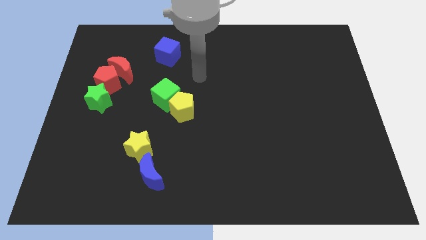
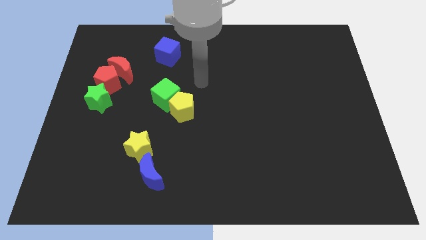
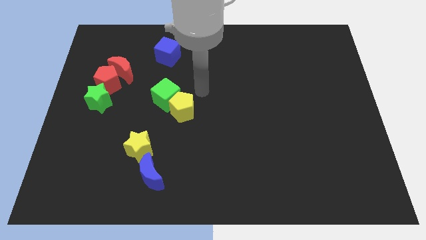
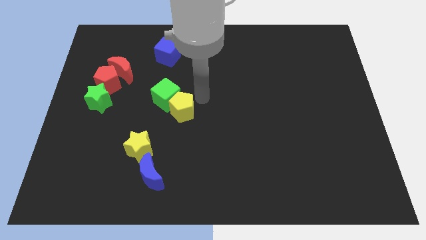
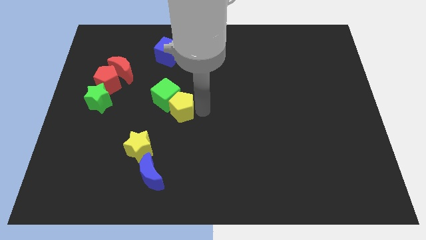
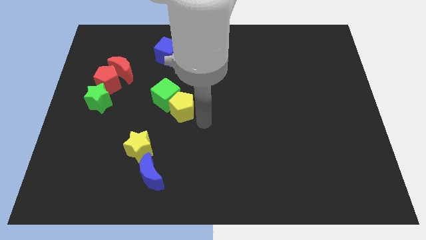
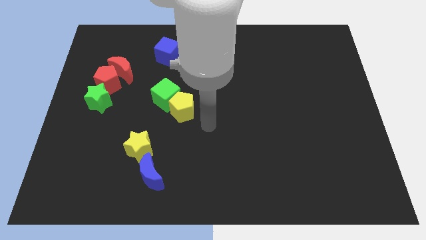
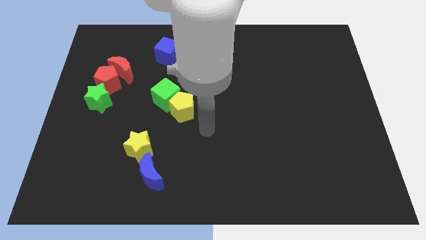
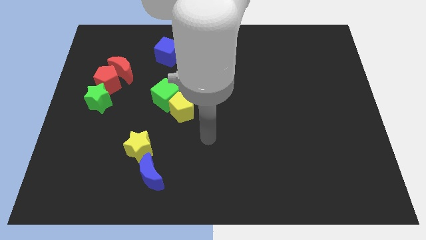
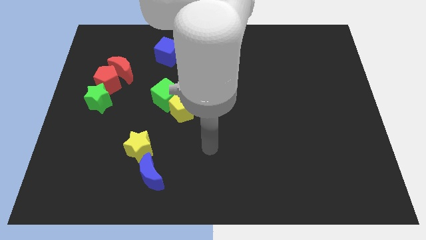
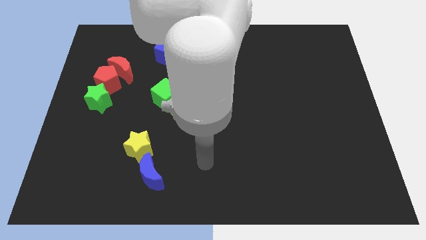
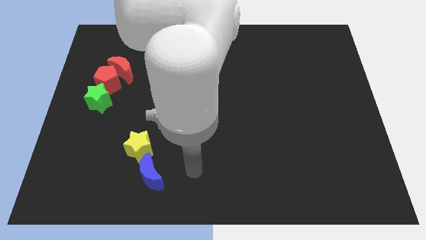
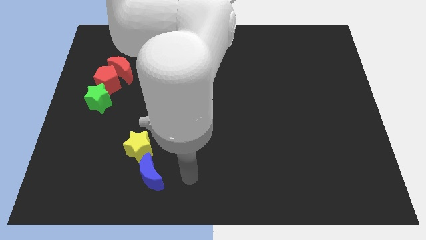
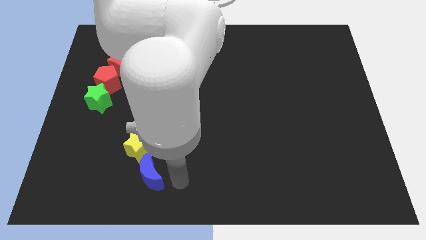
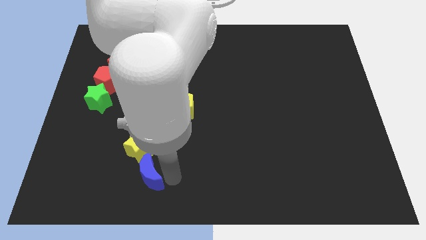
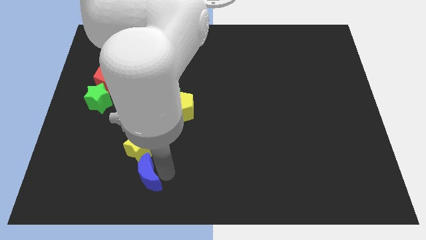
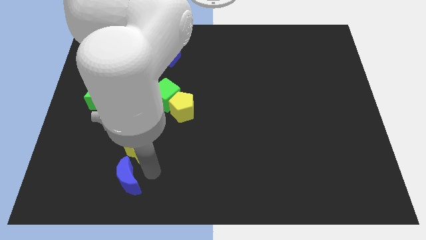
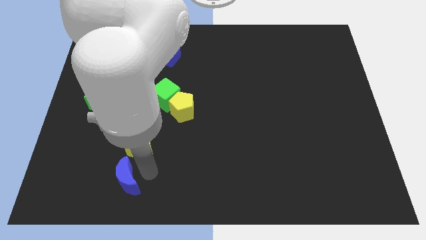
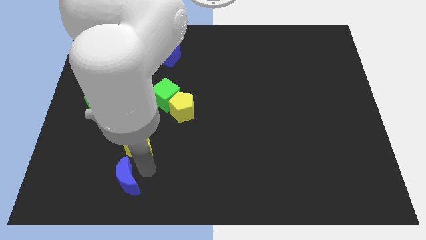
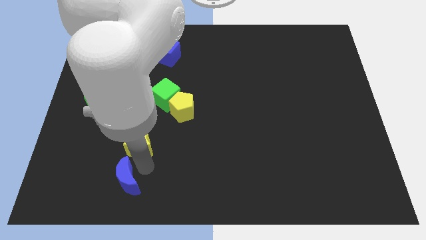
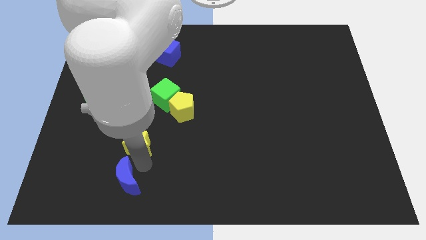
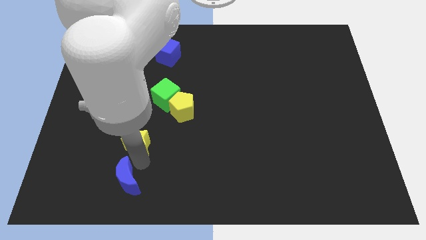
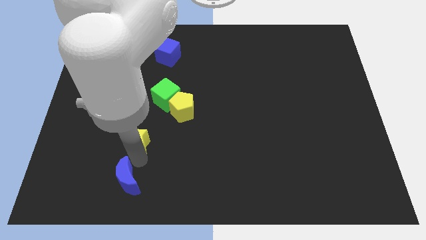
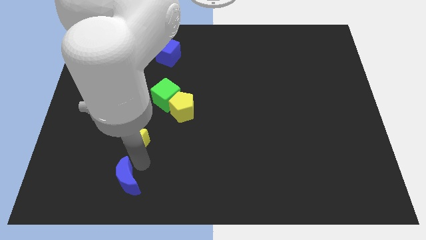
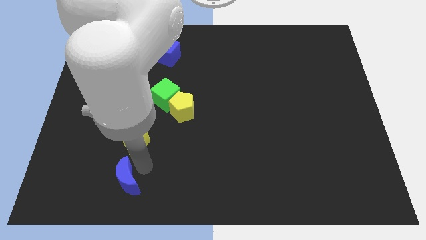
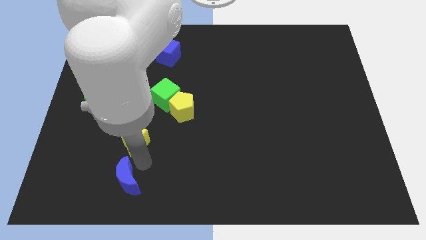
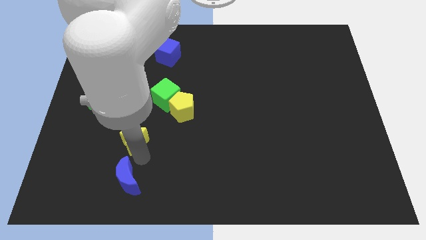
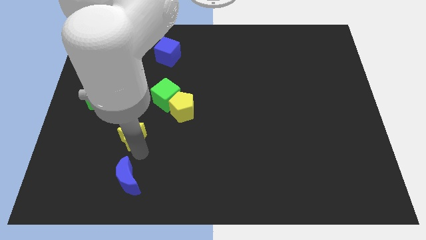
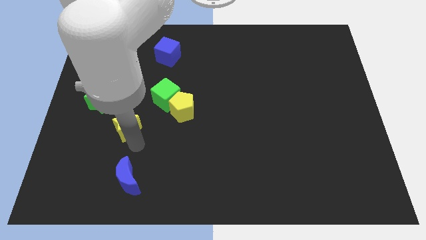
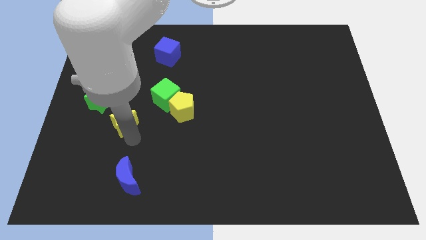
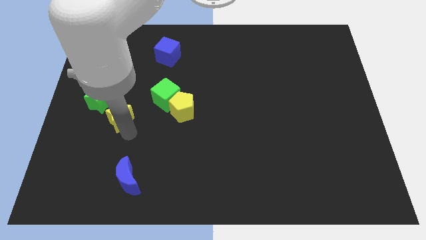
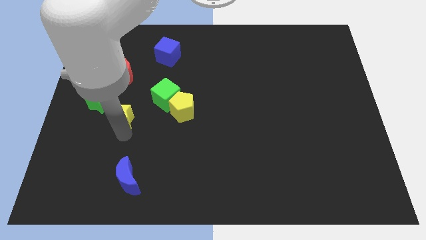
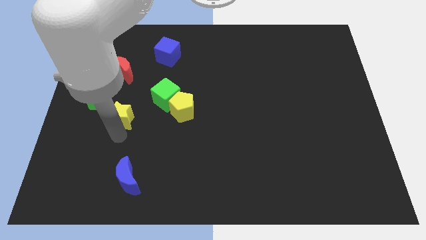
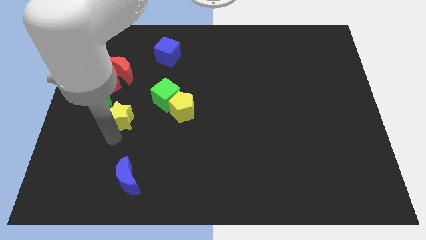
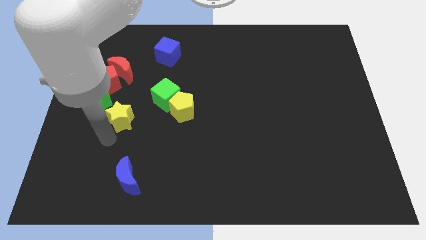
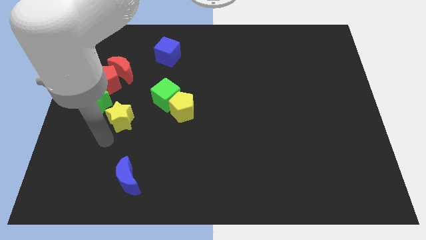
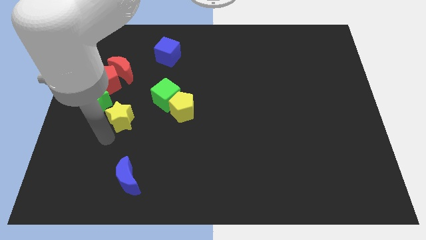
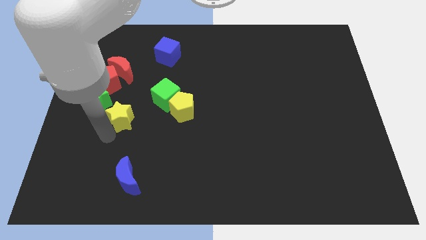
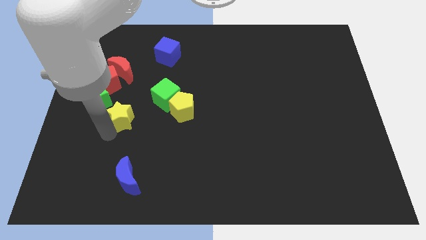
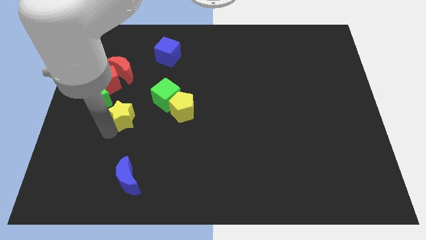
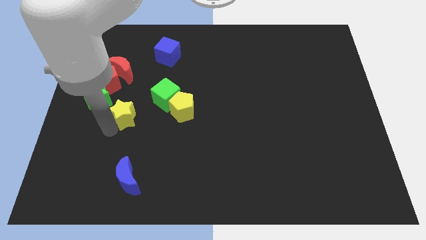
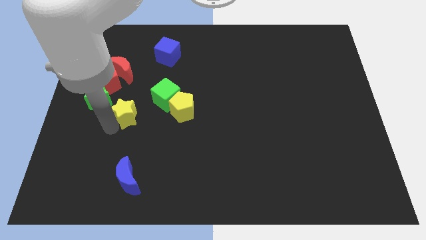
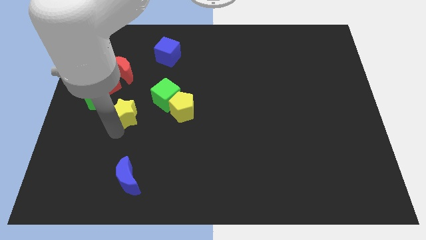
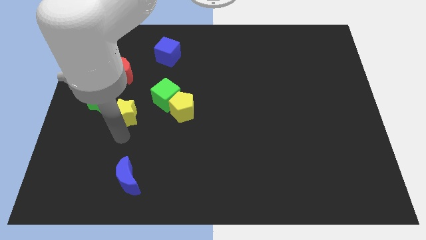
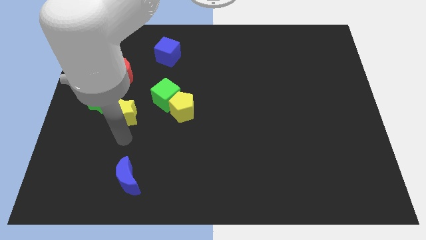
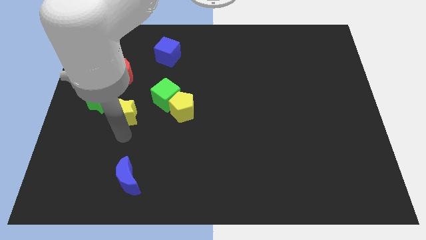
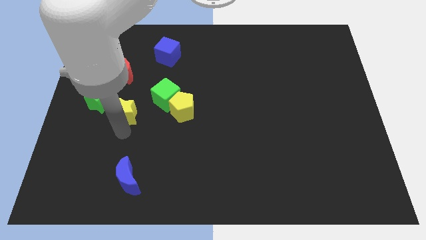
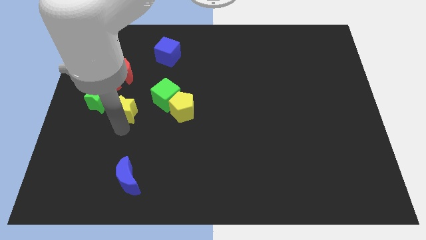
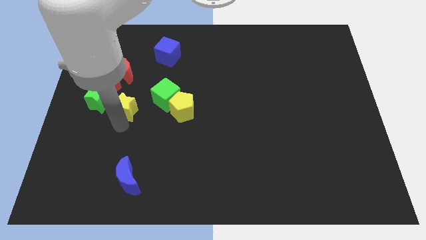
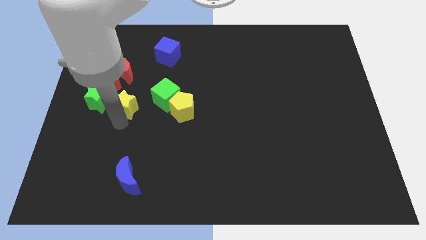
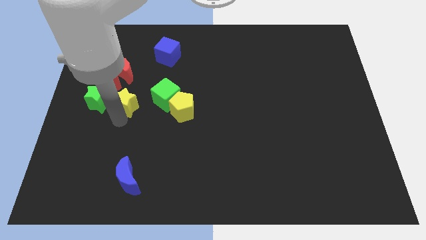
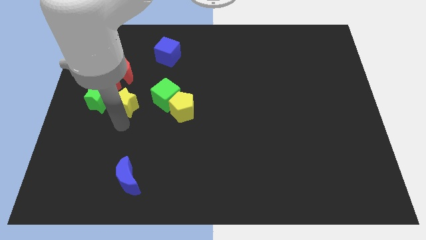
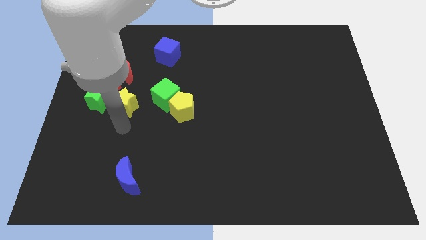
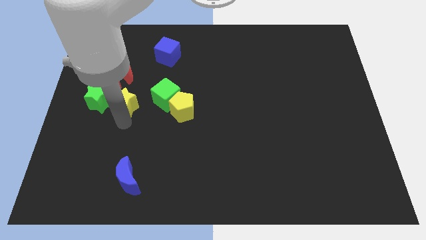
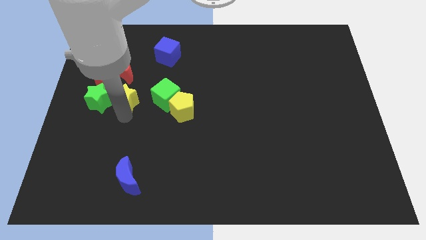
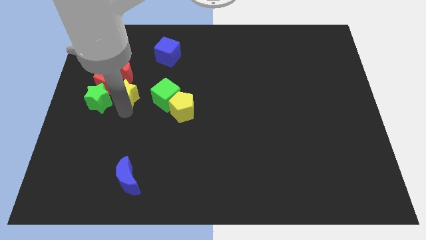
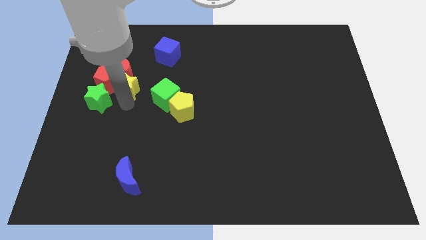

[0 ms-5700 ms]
move the yellow star close to the red moon

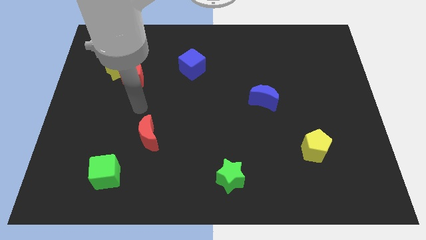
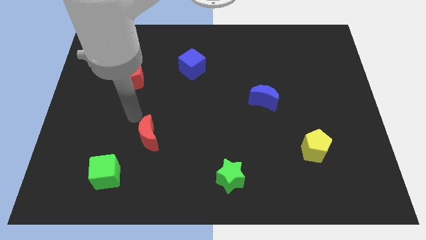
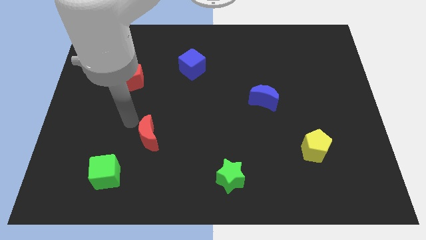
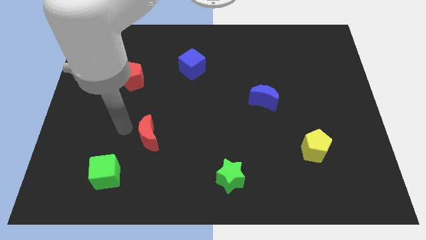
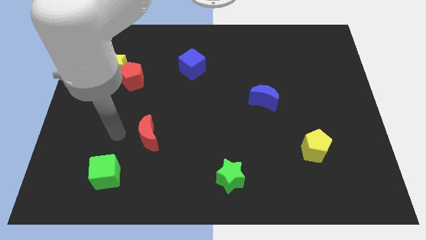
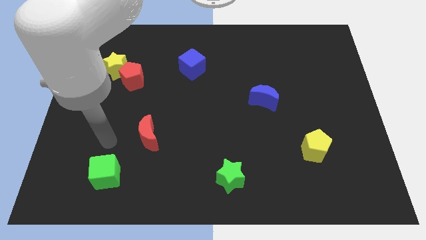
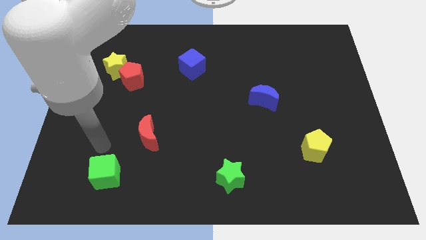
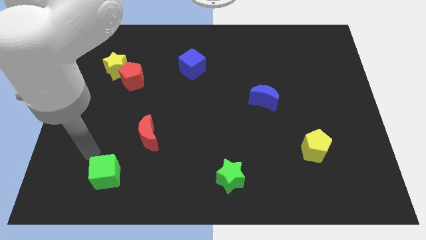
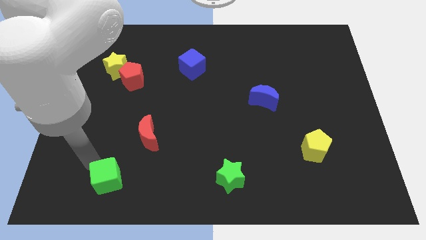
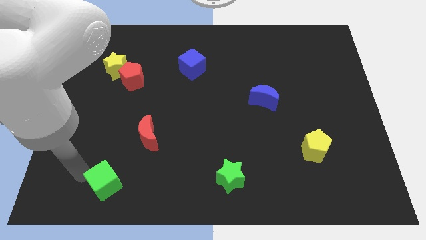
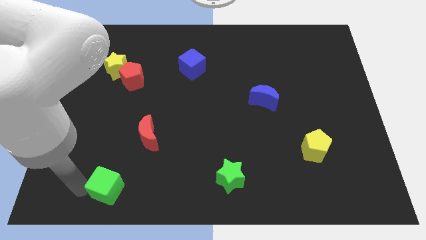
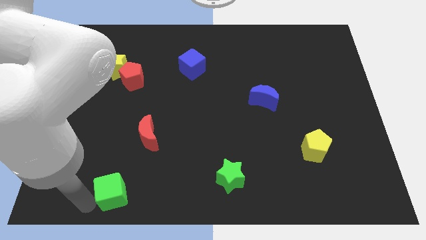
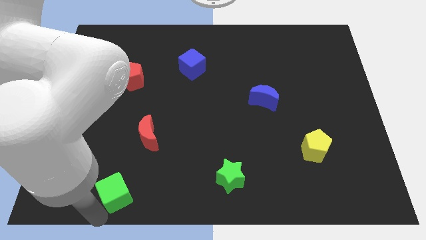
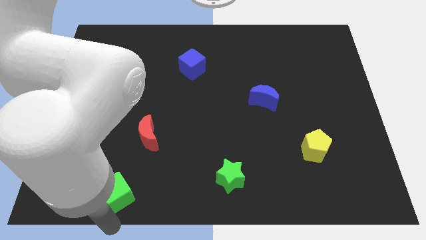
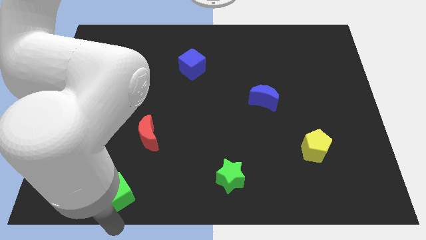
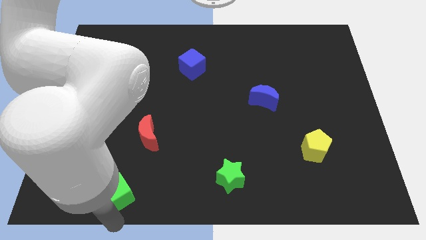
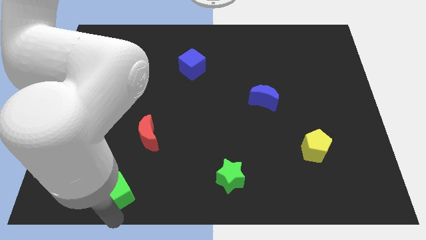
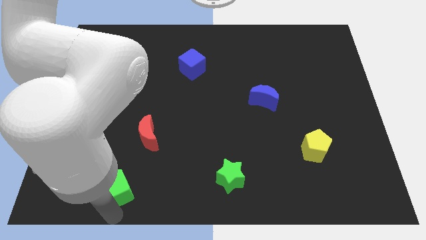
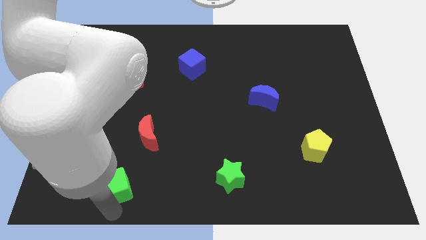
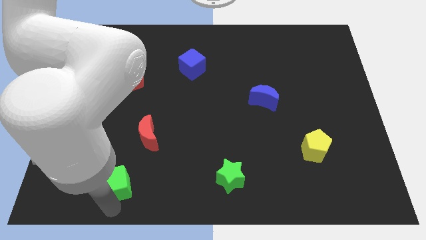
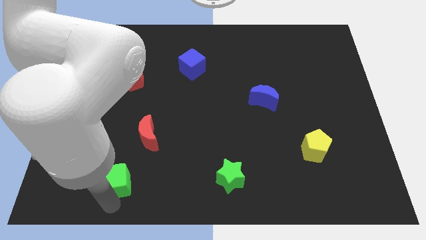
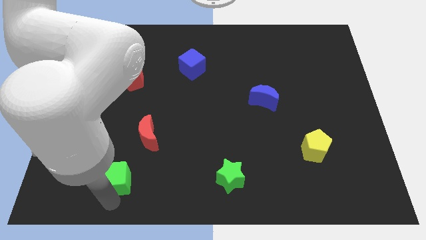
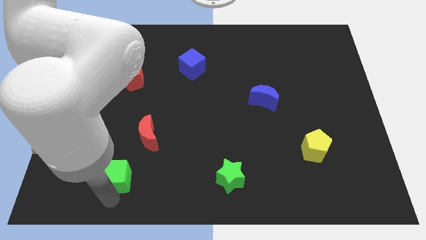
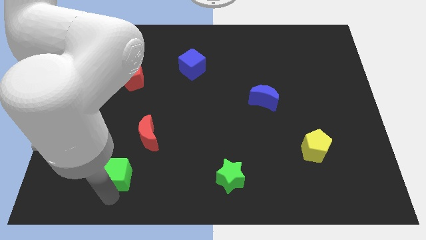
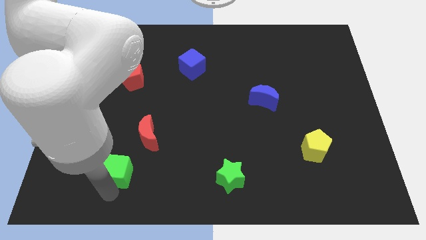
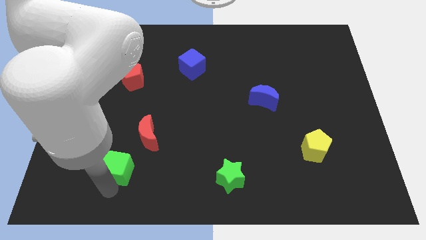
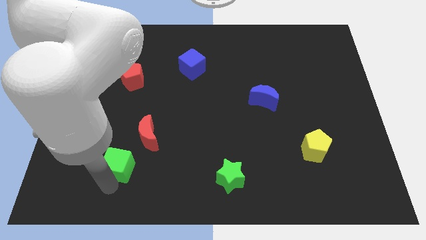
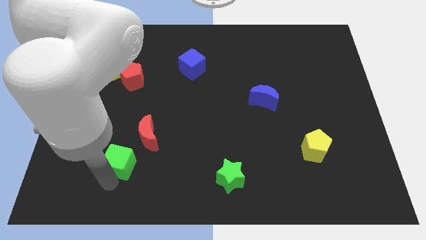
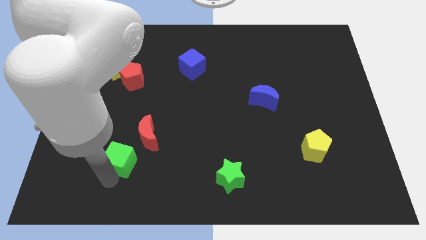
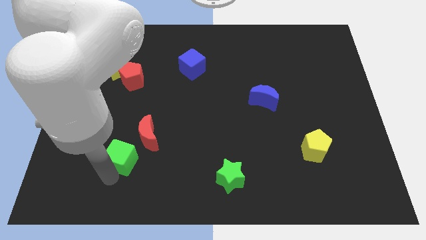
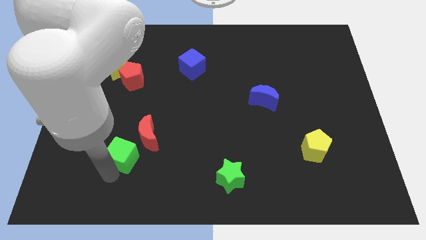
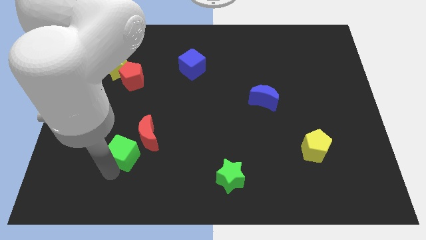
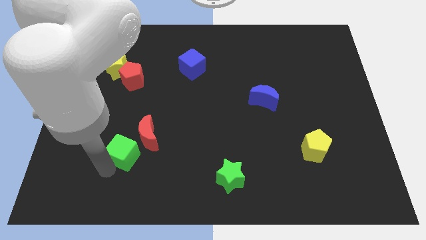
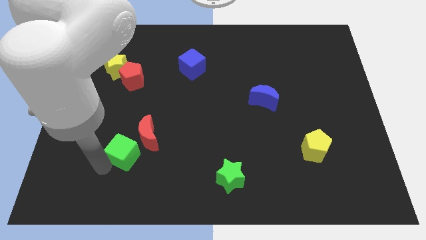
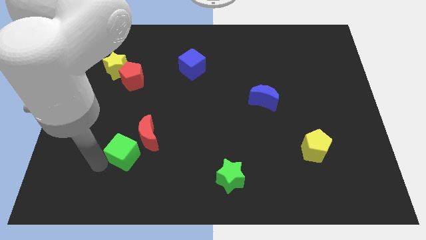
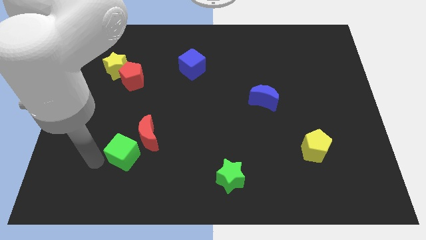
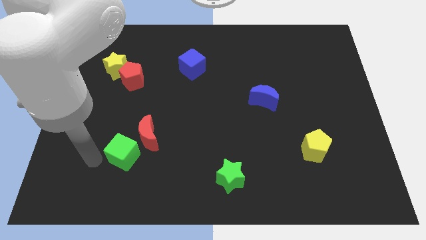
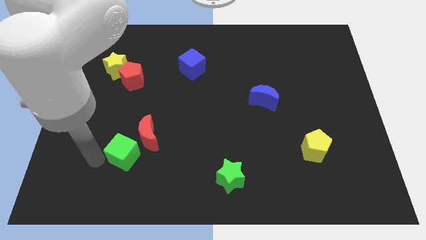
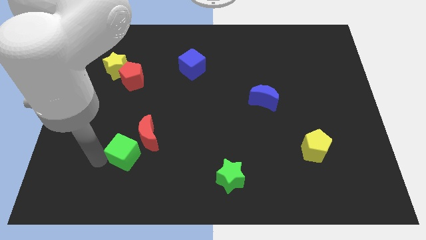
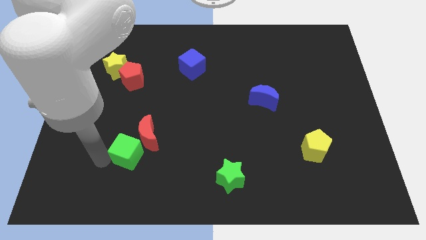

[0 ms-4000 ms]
push the green cube close to the red moon
